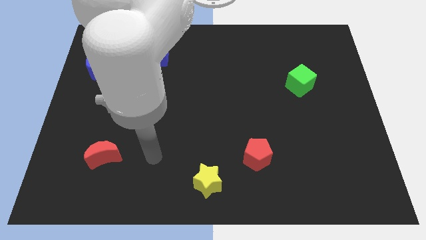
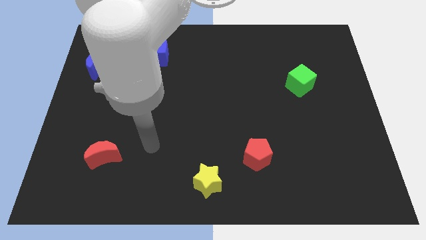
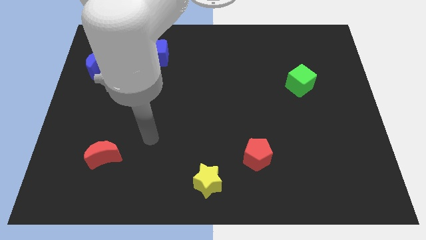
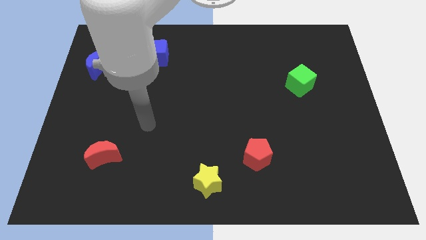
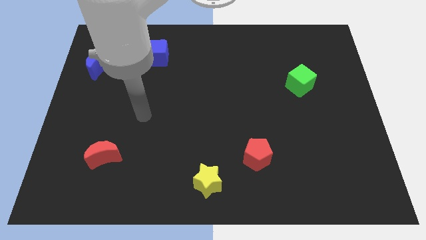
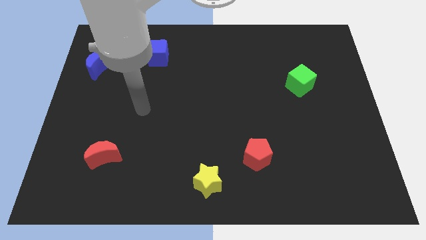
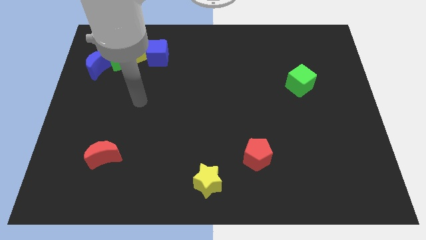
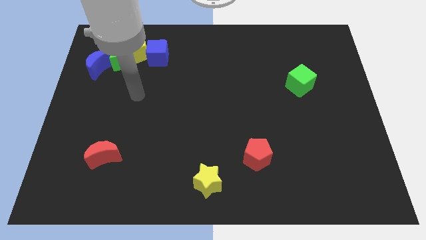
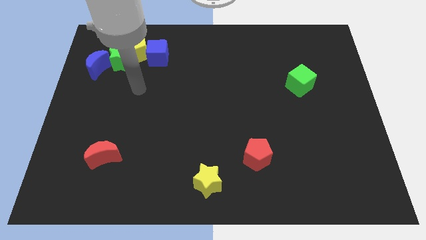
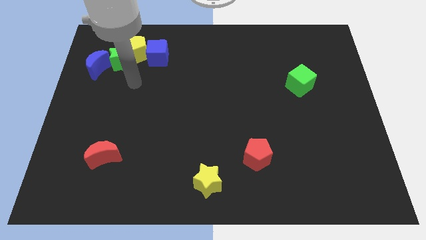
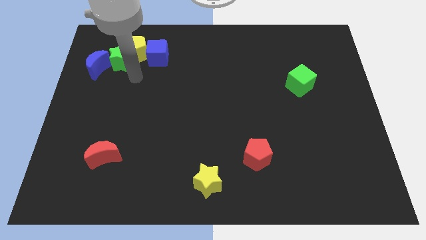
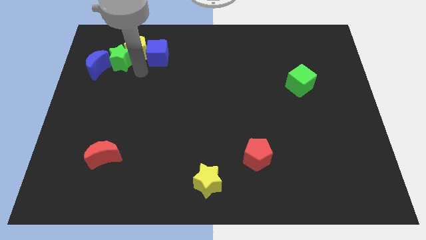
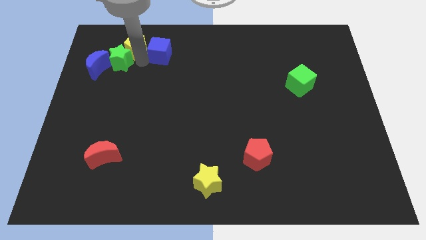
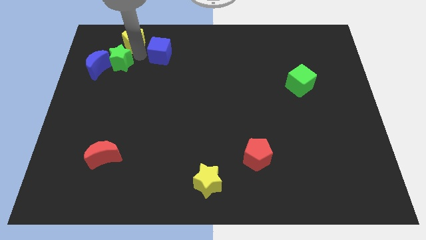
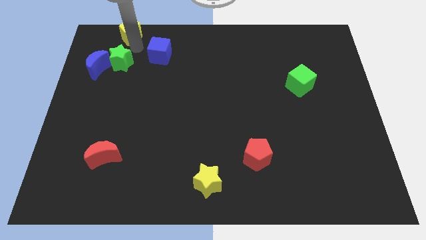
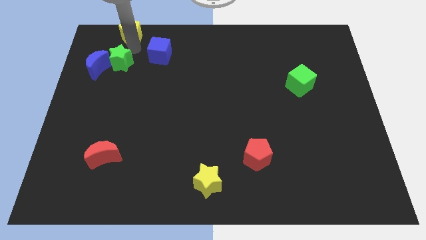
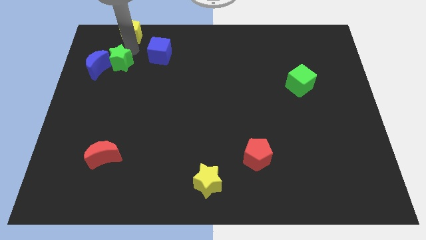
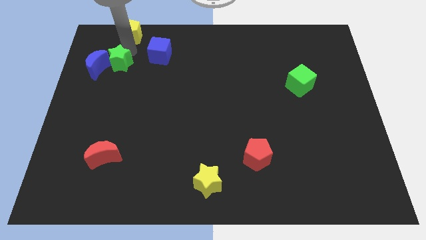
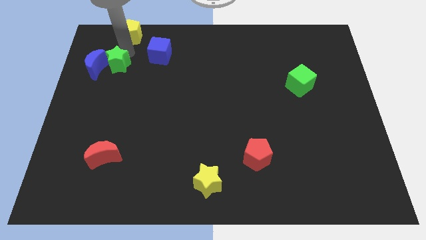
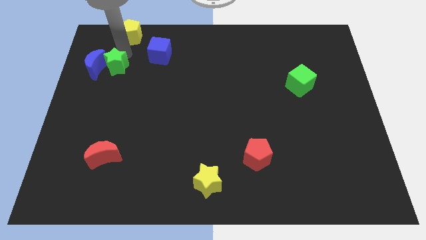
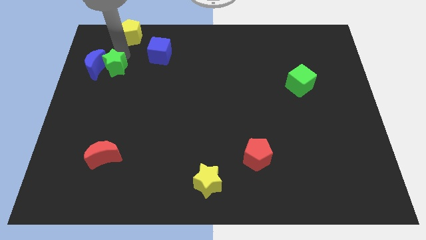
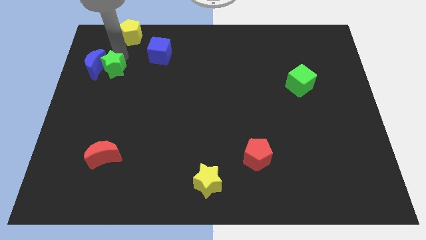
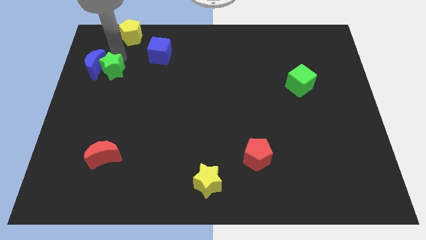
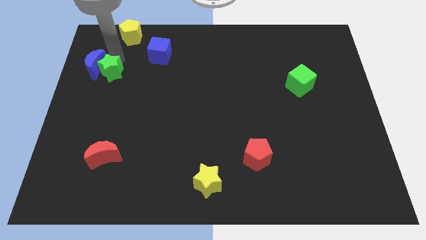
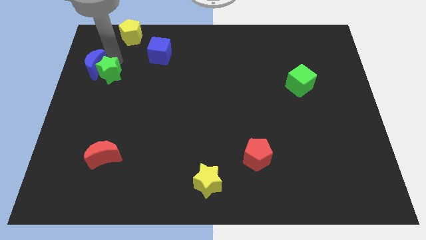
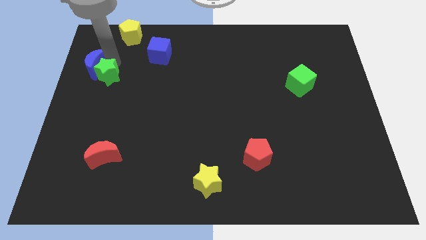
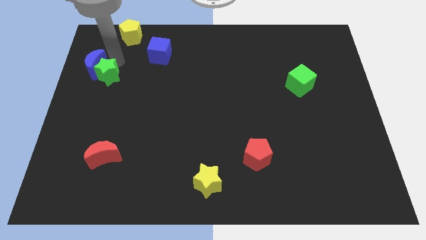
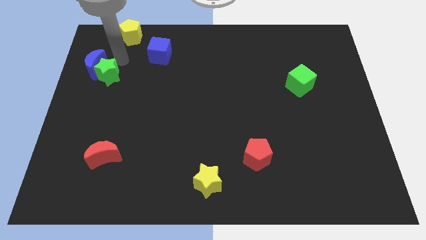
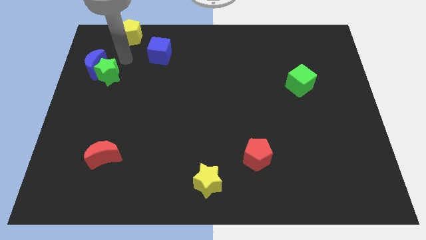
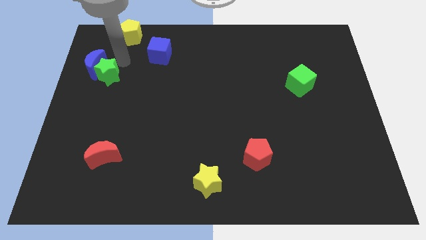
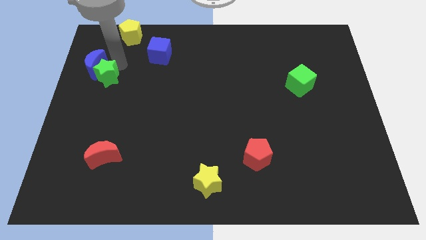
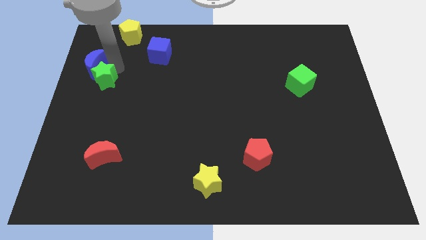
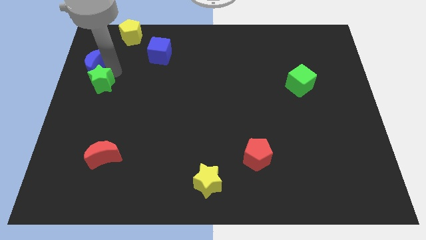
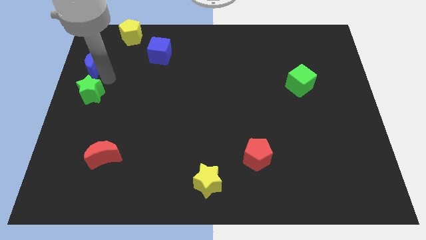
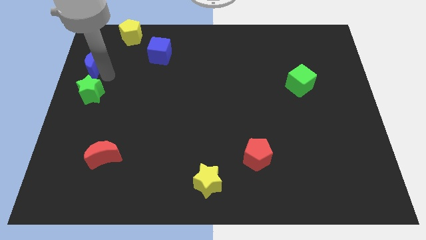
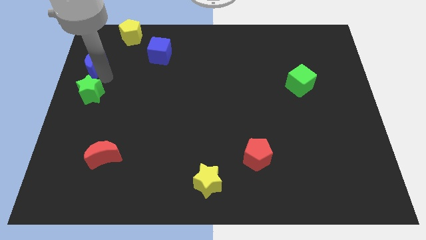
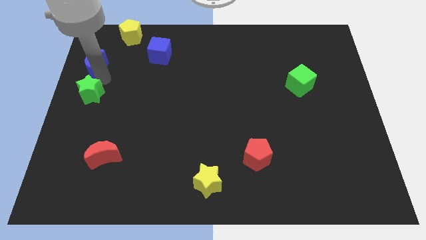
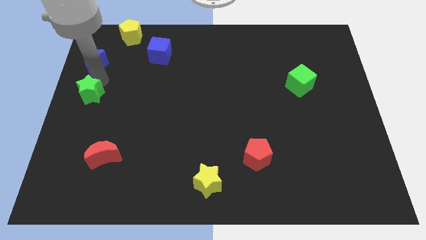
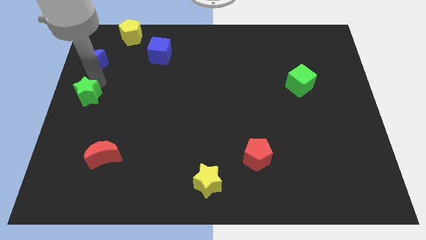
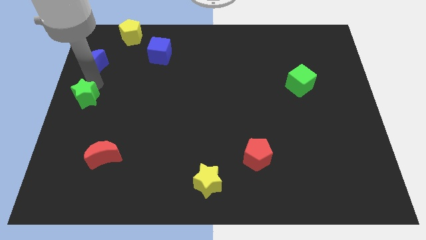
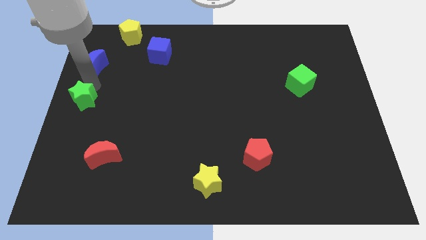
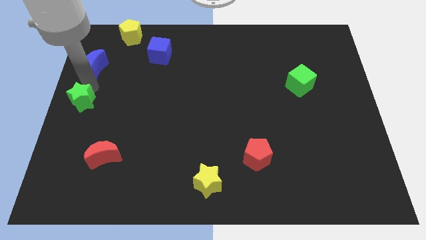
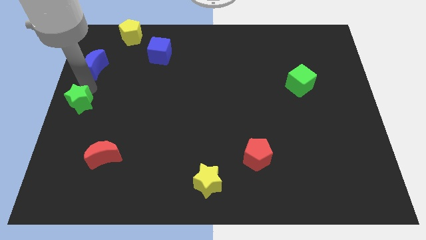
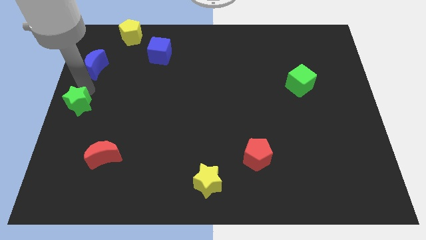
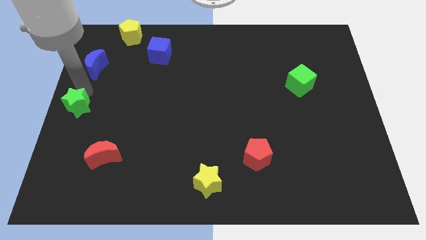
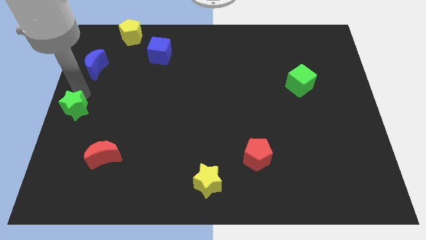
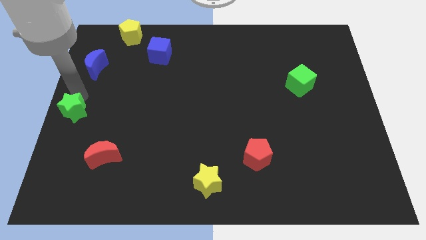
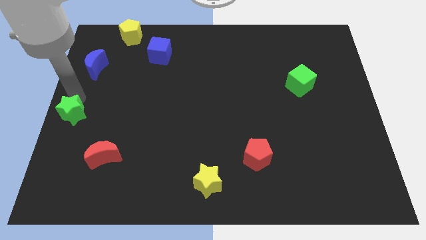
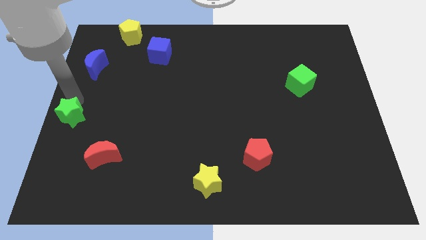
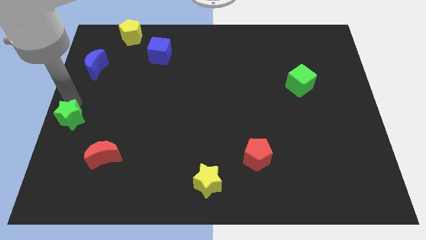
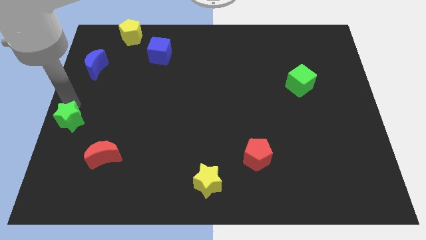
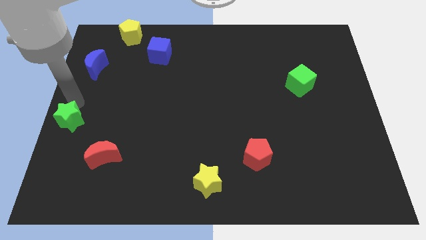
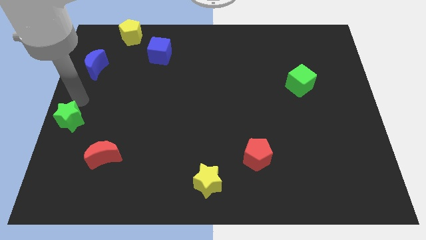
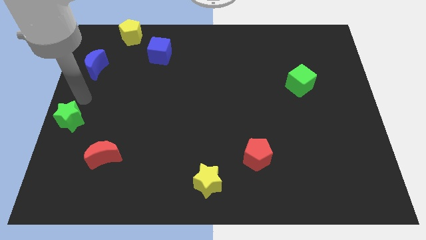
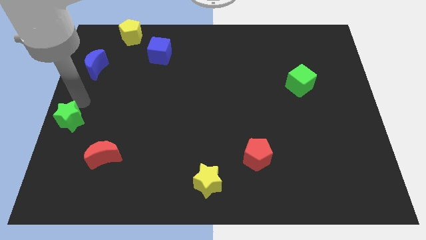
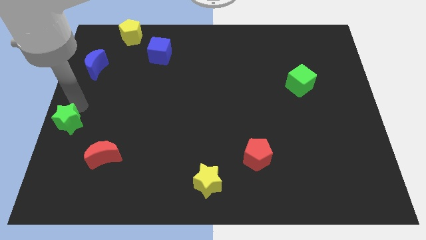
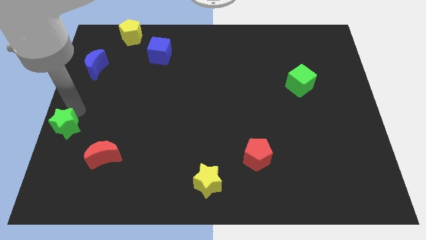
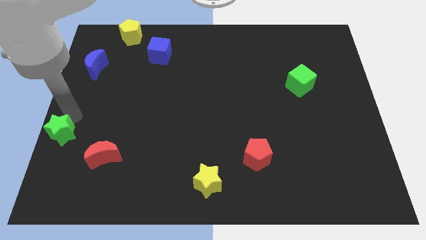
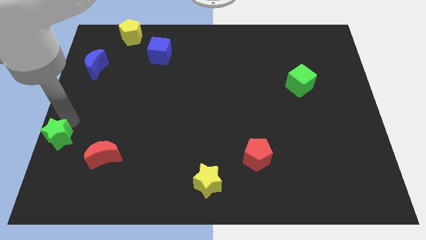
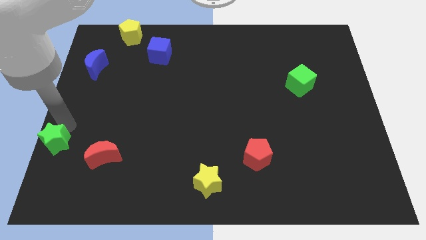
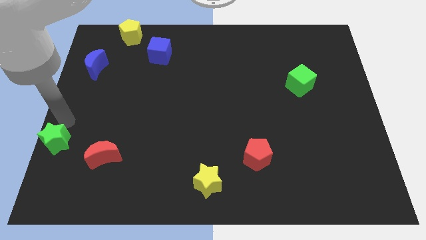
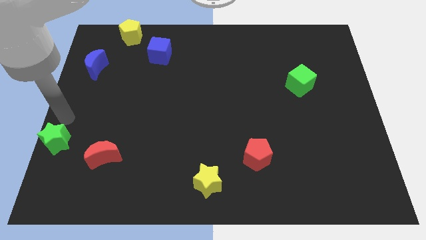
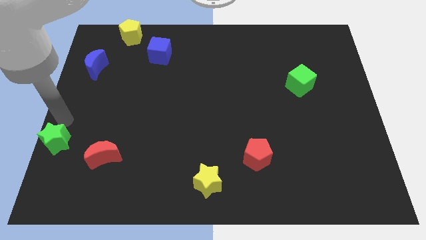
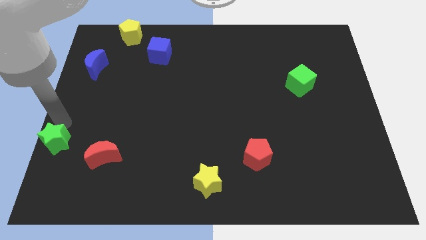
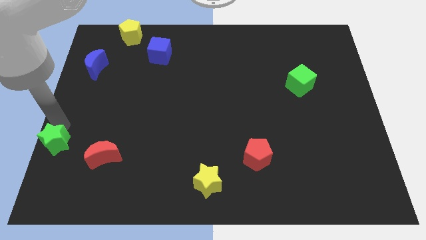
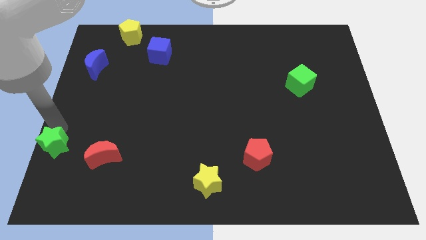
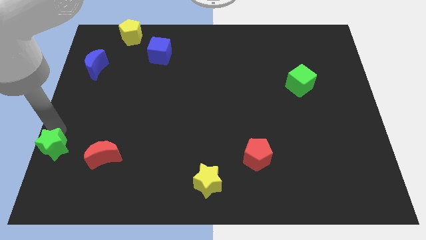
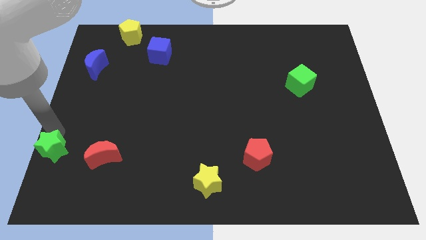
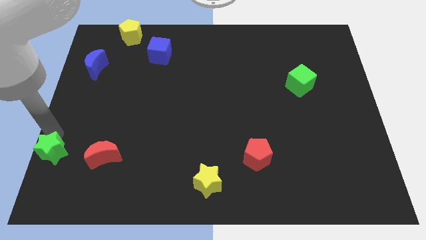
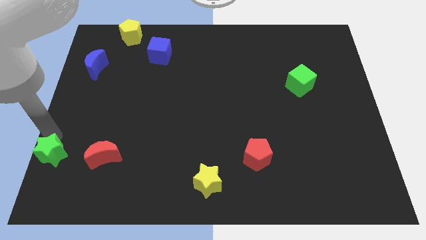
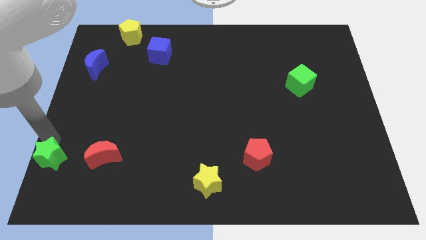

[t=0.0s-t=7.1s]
move the green star to the bottom left of the board
